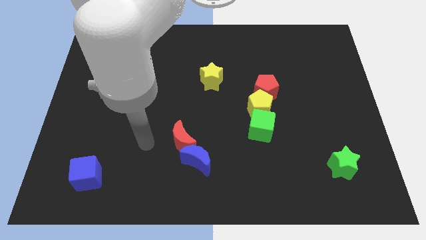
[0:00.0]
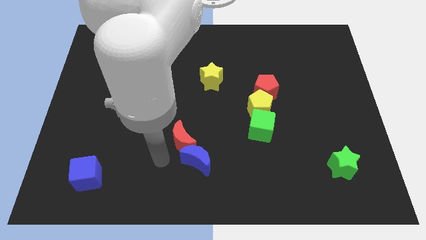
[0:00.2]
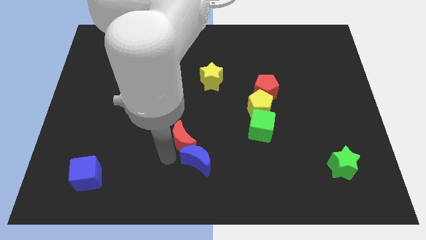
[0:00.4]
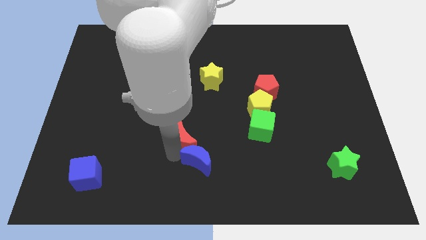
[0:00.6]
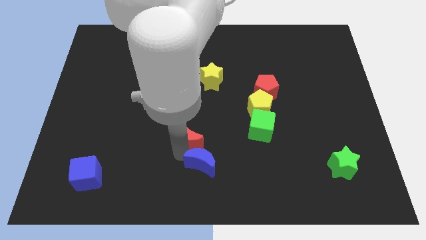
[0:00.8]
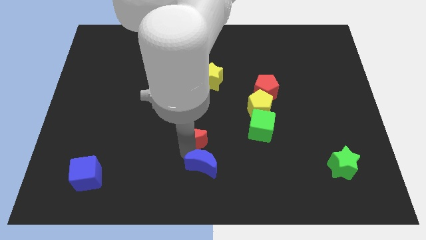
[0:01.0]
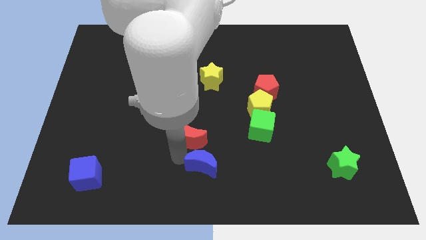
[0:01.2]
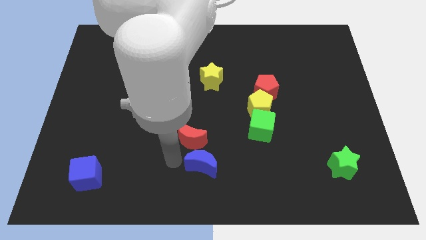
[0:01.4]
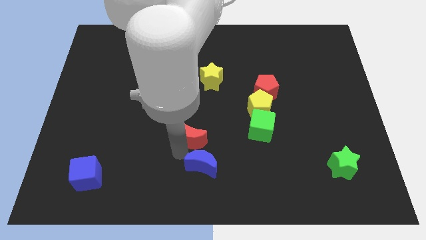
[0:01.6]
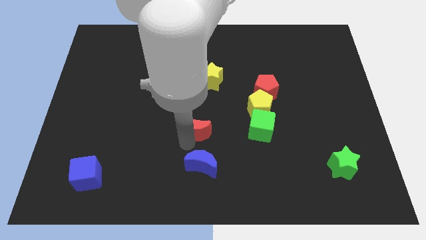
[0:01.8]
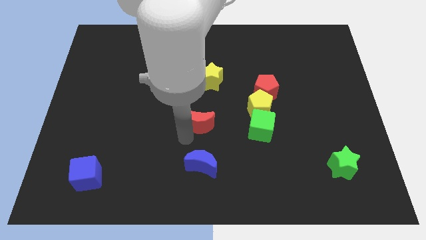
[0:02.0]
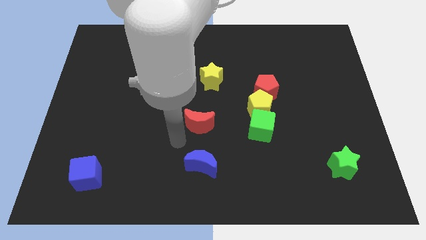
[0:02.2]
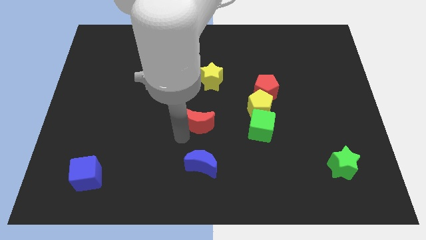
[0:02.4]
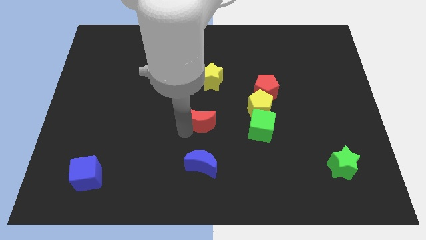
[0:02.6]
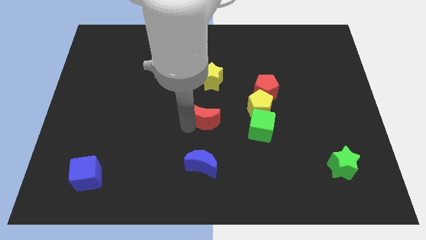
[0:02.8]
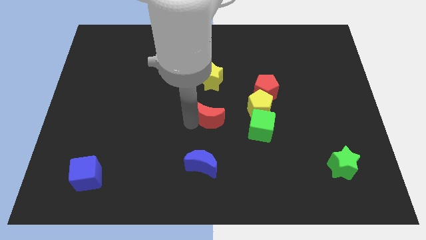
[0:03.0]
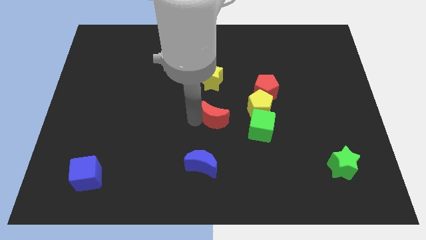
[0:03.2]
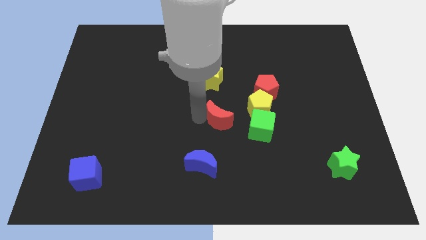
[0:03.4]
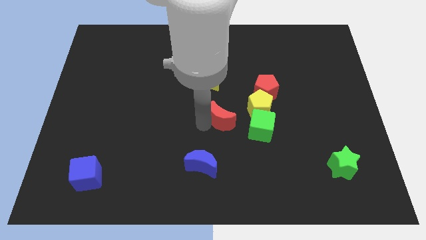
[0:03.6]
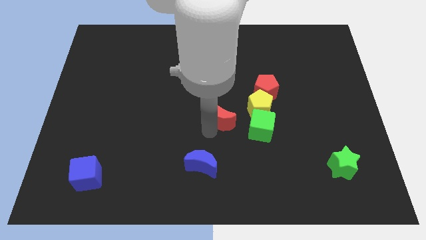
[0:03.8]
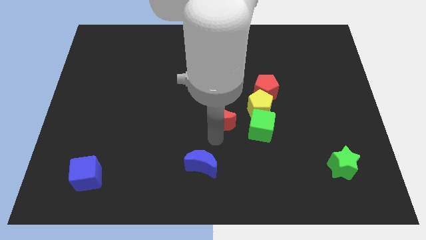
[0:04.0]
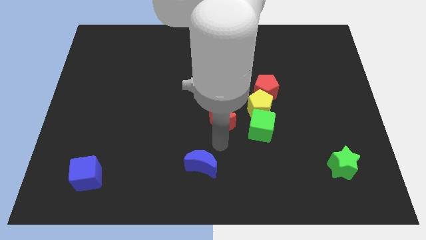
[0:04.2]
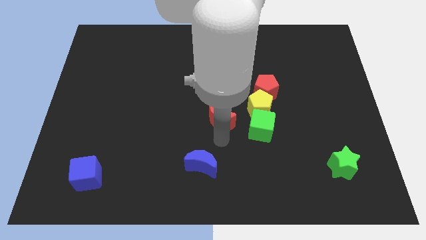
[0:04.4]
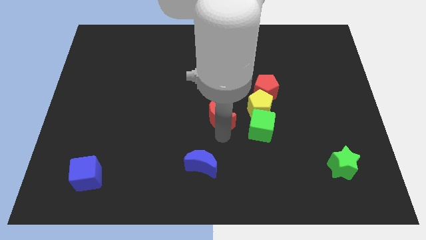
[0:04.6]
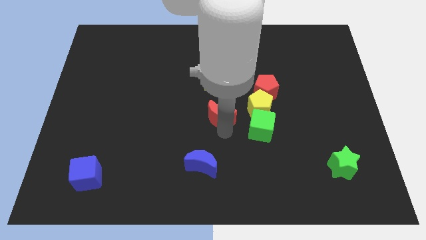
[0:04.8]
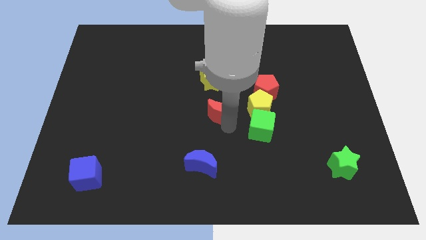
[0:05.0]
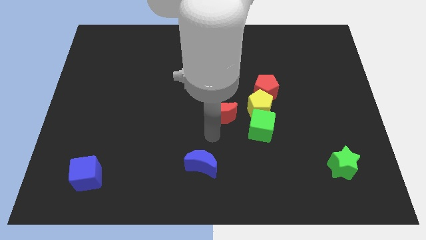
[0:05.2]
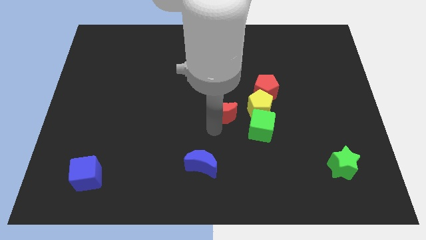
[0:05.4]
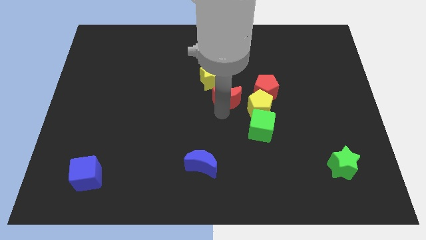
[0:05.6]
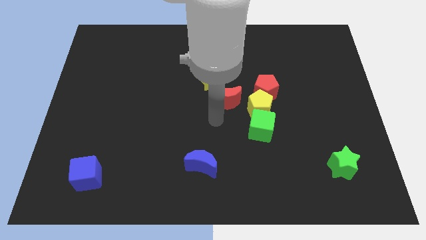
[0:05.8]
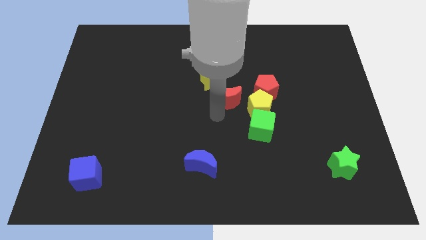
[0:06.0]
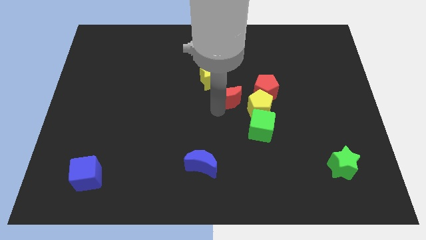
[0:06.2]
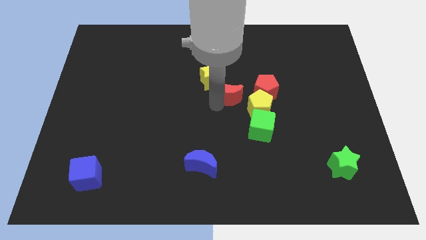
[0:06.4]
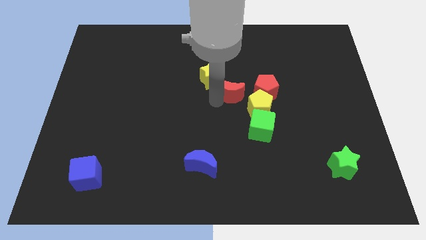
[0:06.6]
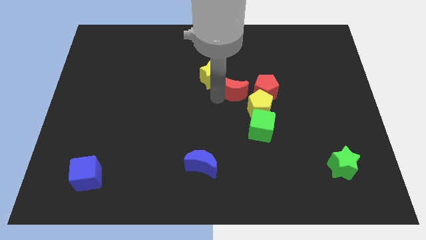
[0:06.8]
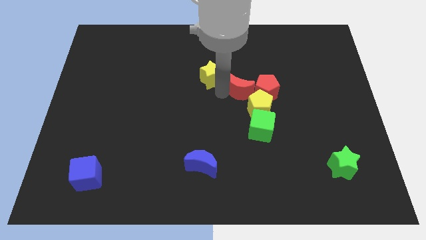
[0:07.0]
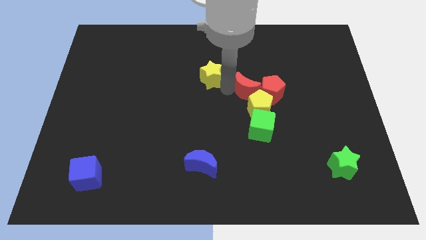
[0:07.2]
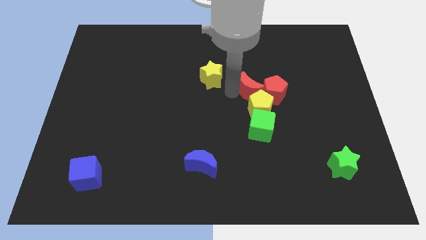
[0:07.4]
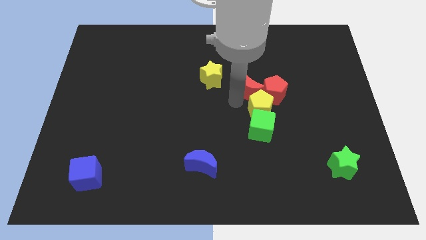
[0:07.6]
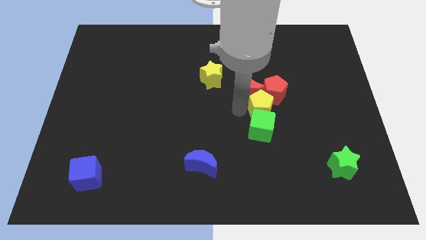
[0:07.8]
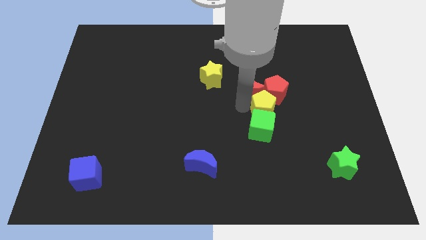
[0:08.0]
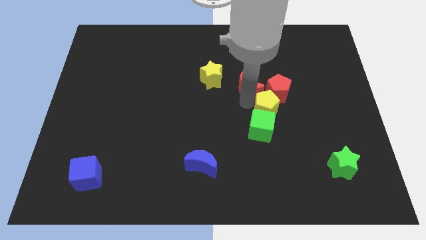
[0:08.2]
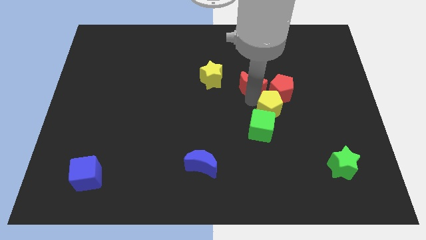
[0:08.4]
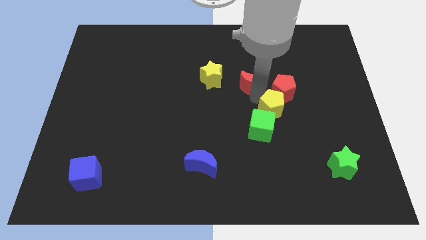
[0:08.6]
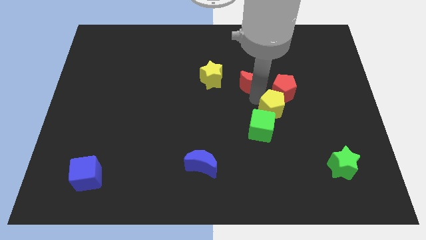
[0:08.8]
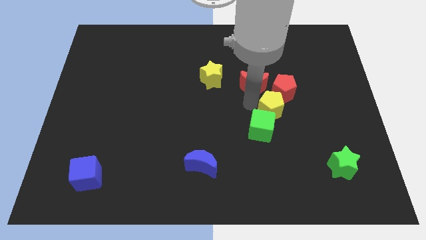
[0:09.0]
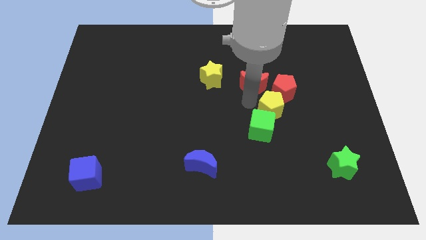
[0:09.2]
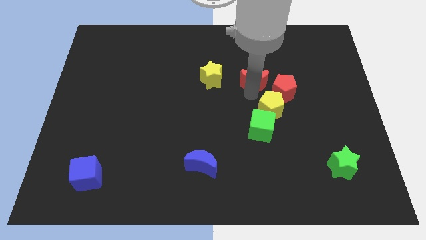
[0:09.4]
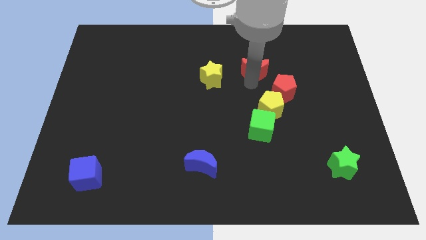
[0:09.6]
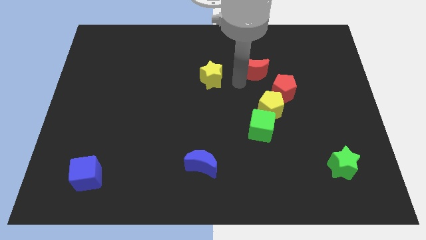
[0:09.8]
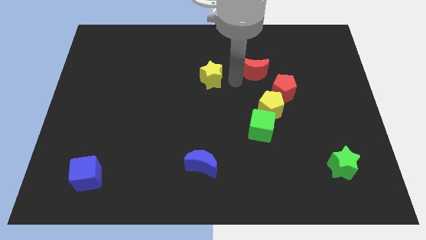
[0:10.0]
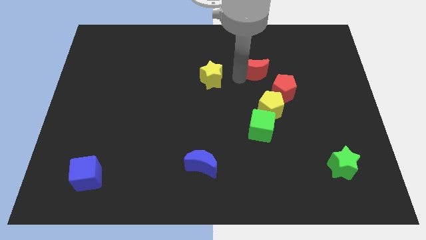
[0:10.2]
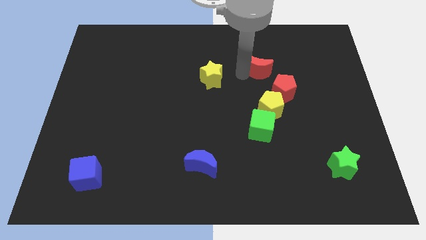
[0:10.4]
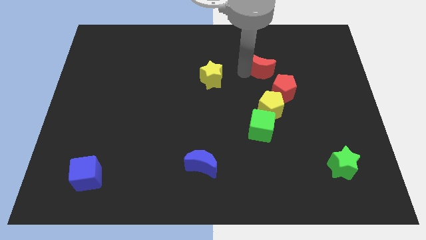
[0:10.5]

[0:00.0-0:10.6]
slide the red moon to the top of the red pentagon
